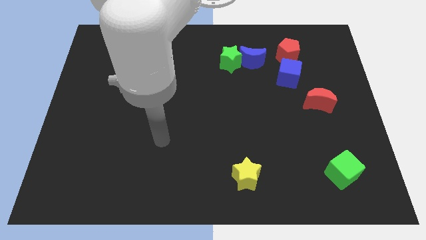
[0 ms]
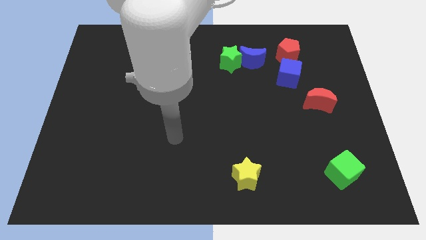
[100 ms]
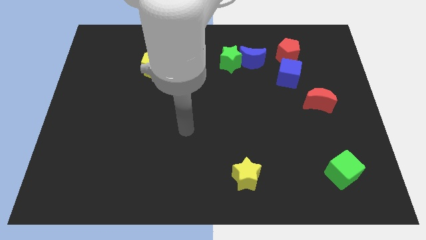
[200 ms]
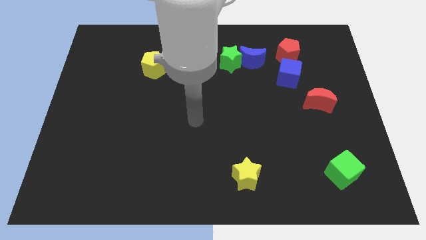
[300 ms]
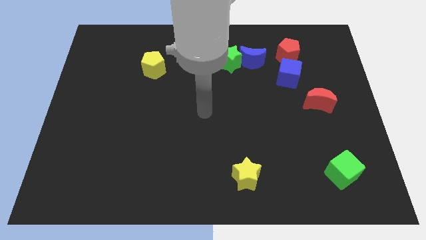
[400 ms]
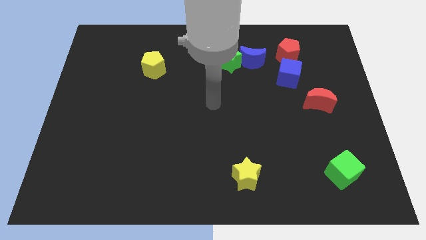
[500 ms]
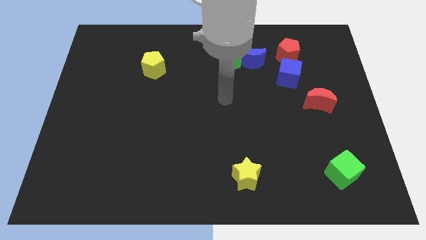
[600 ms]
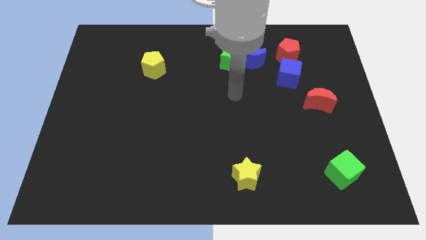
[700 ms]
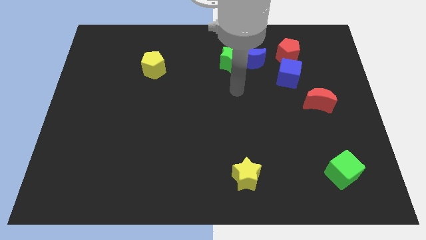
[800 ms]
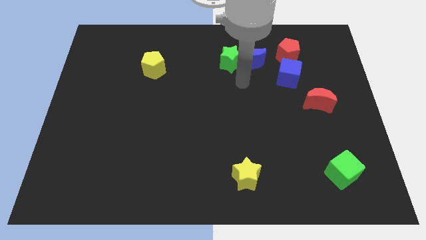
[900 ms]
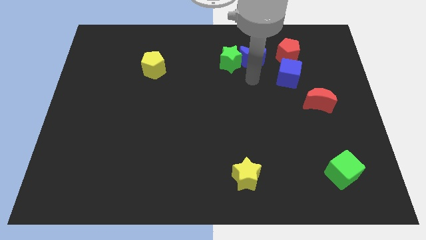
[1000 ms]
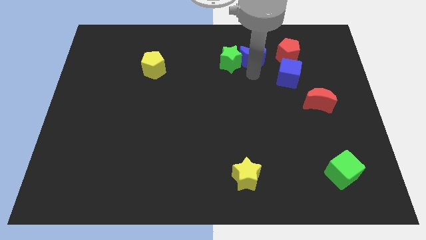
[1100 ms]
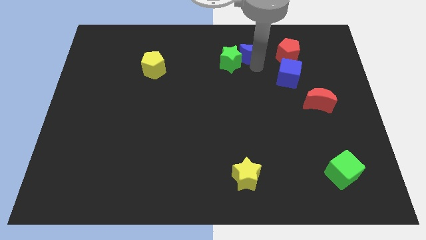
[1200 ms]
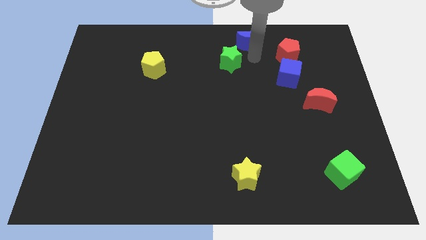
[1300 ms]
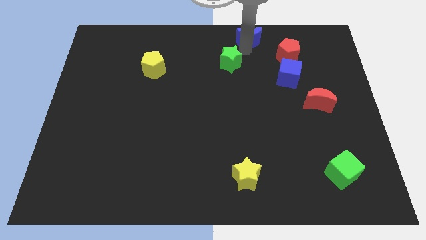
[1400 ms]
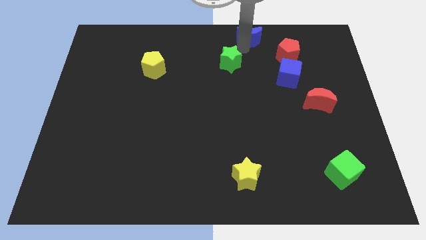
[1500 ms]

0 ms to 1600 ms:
pull the green star apart from the blue moon

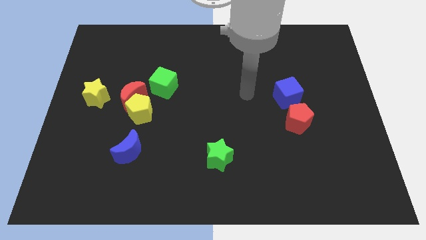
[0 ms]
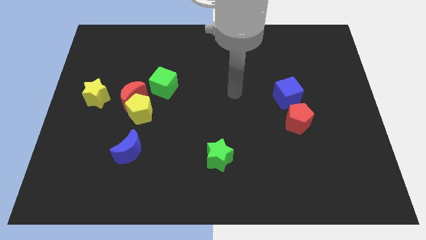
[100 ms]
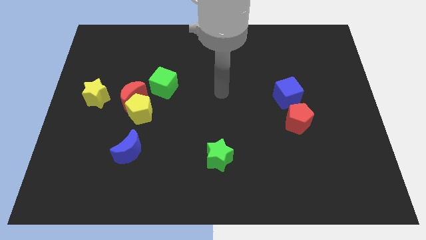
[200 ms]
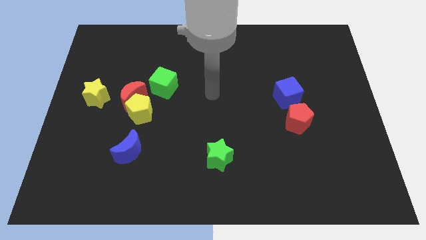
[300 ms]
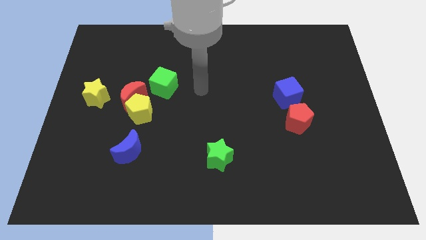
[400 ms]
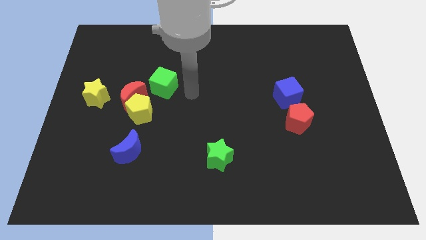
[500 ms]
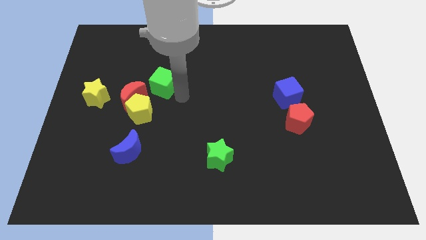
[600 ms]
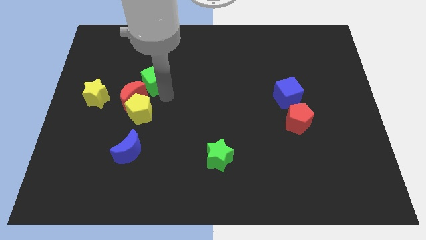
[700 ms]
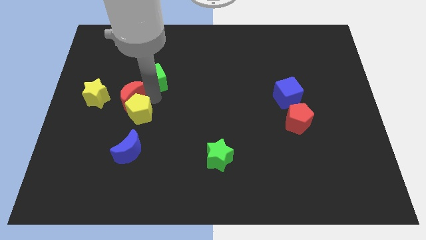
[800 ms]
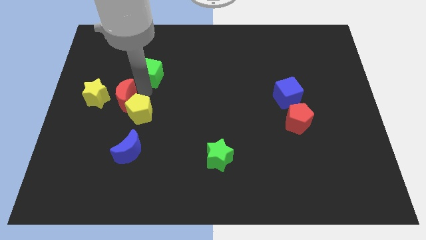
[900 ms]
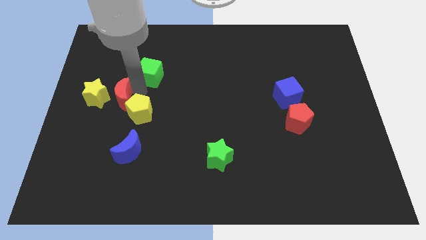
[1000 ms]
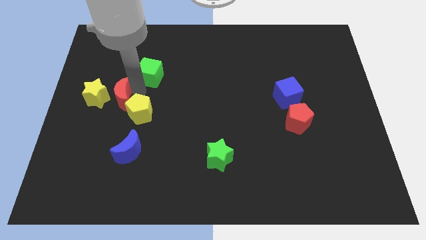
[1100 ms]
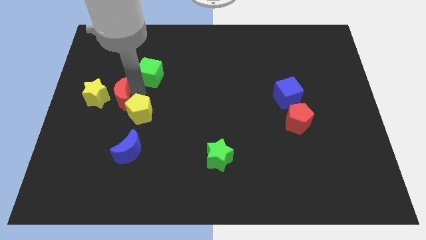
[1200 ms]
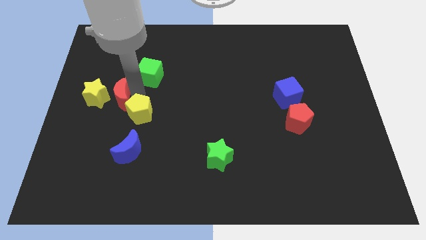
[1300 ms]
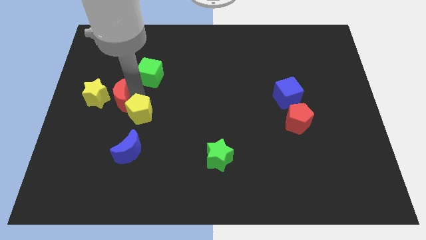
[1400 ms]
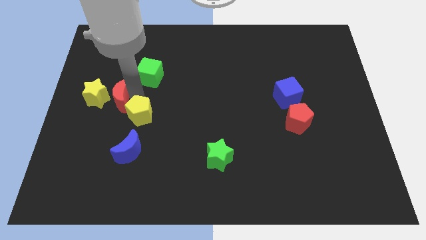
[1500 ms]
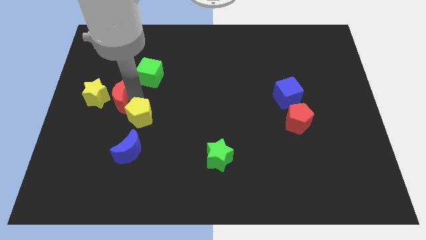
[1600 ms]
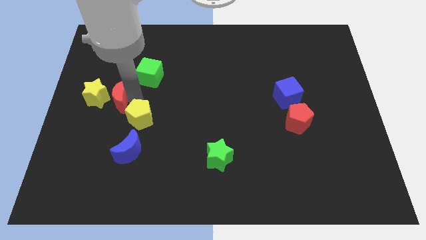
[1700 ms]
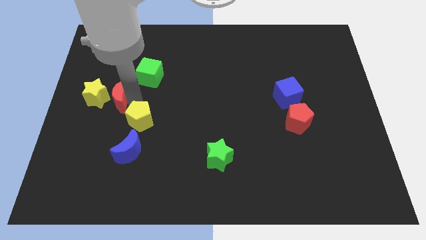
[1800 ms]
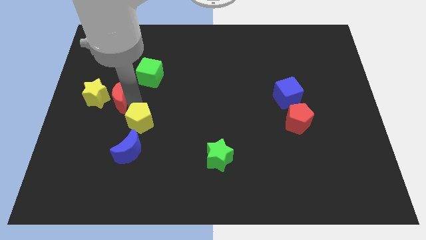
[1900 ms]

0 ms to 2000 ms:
separate the yellow pentagon from the red moon and green cube

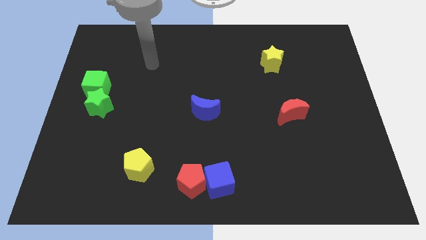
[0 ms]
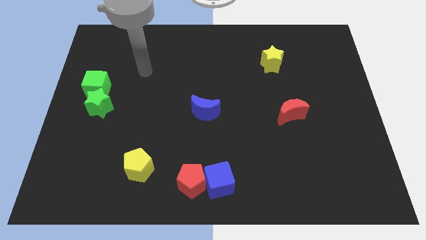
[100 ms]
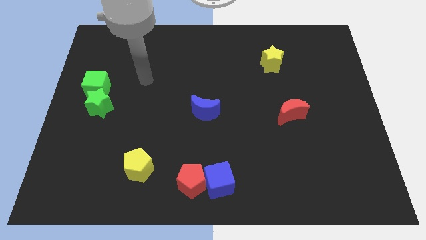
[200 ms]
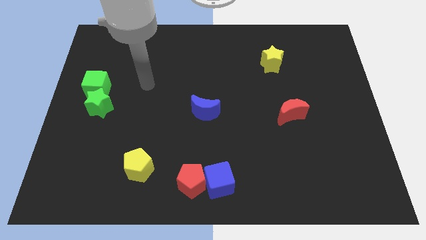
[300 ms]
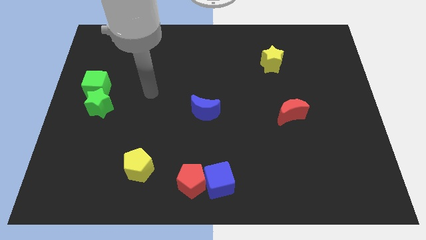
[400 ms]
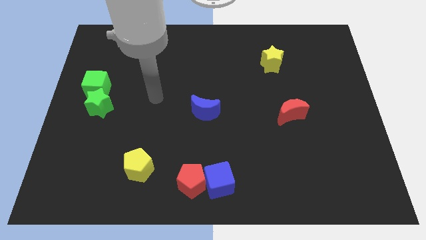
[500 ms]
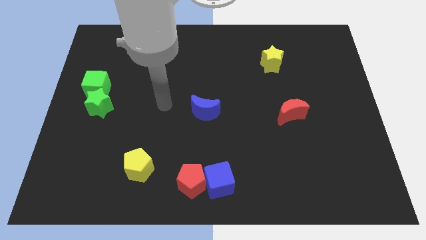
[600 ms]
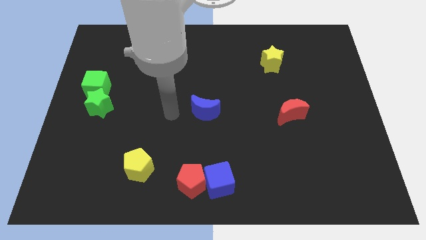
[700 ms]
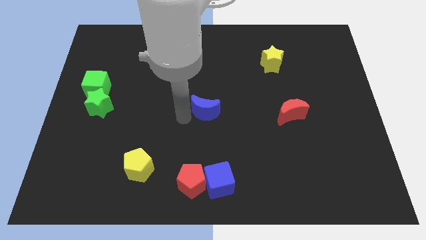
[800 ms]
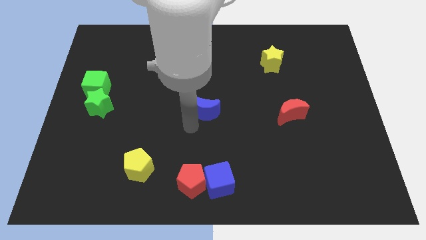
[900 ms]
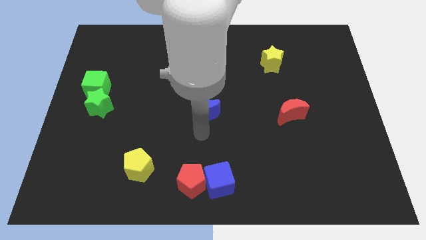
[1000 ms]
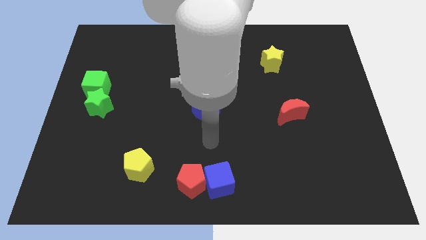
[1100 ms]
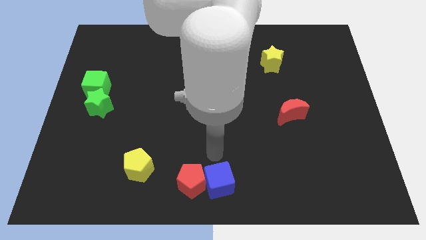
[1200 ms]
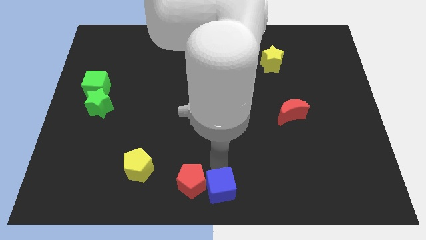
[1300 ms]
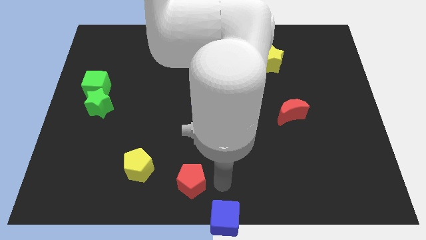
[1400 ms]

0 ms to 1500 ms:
separate the red pentagon from the blue cube

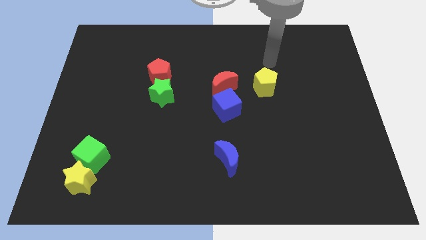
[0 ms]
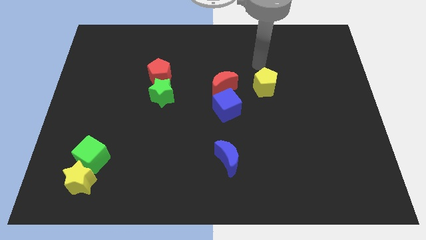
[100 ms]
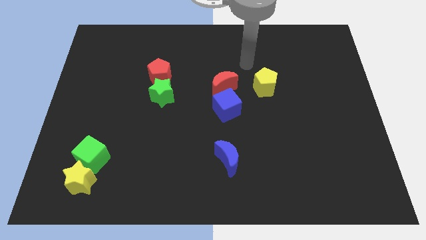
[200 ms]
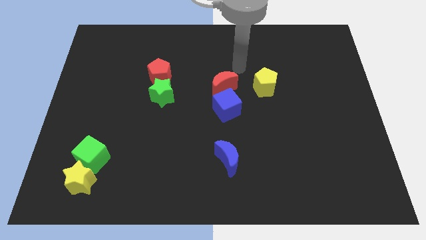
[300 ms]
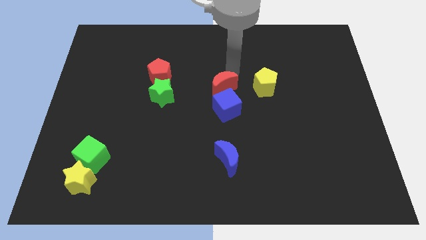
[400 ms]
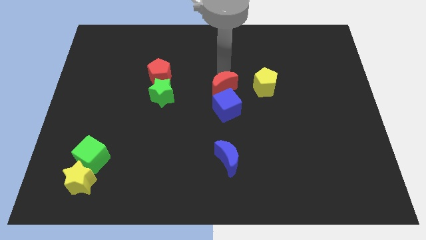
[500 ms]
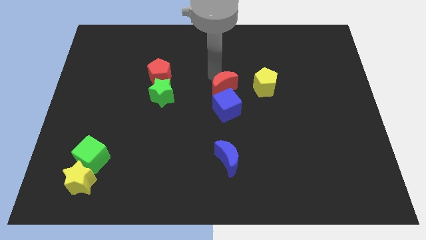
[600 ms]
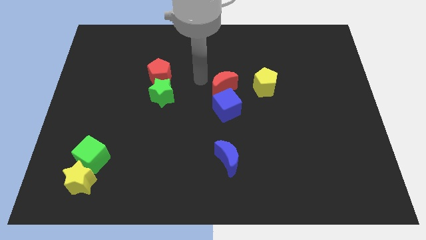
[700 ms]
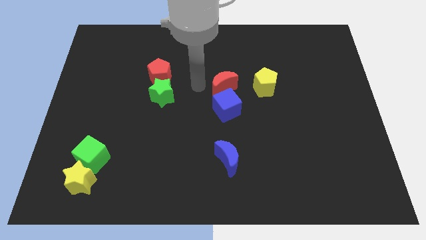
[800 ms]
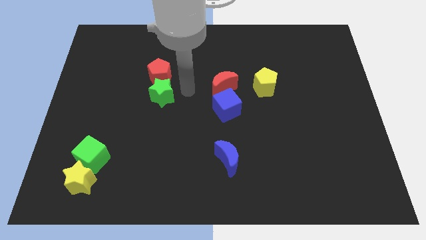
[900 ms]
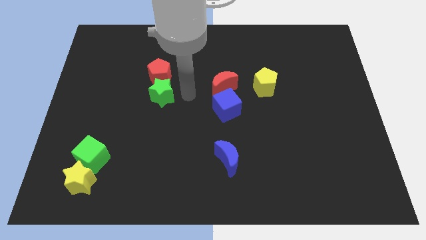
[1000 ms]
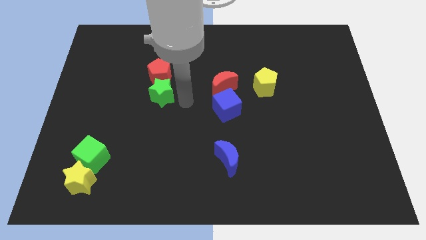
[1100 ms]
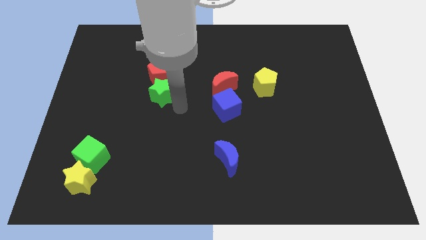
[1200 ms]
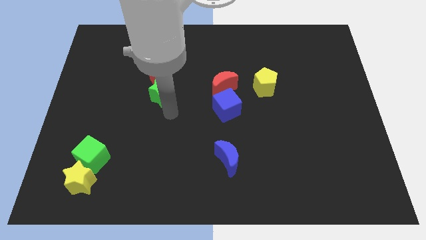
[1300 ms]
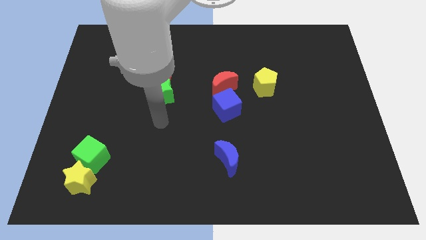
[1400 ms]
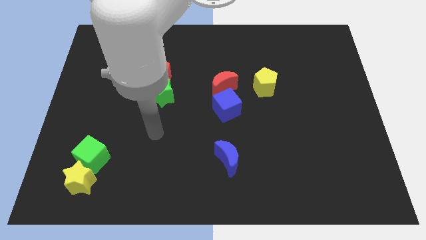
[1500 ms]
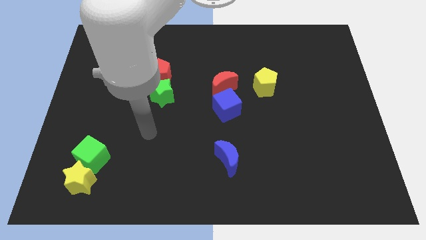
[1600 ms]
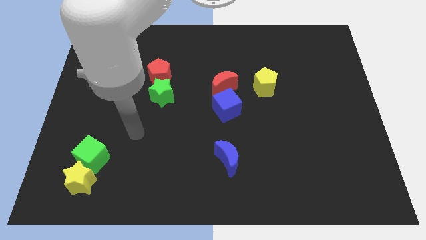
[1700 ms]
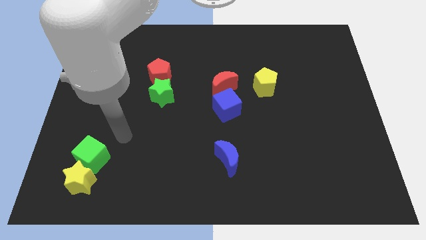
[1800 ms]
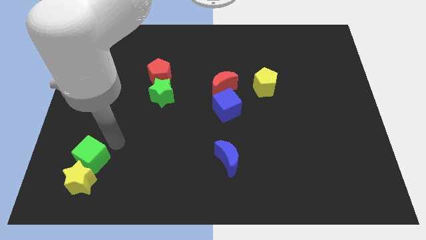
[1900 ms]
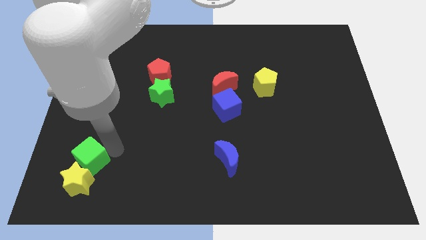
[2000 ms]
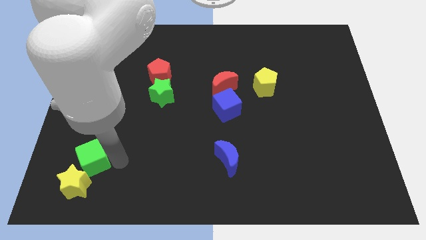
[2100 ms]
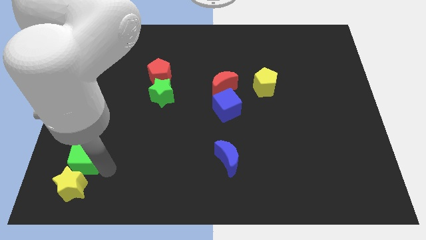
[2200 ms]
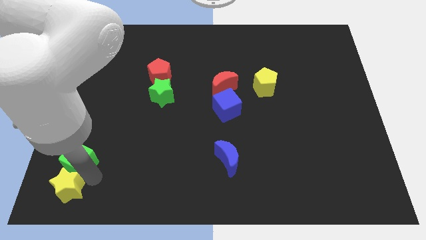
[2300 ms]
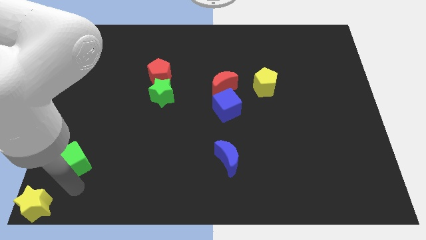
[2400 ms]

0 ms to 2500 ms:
separate the green cube from the yellow star

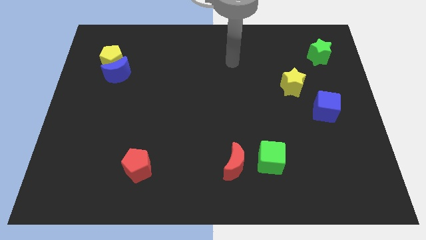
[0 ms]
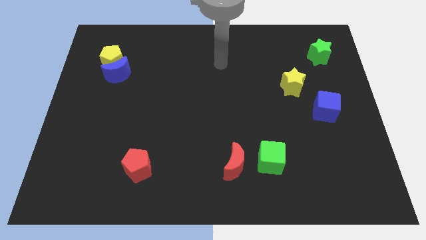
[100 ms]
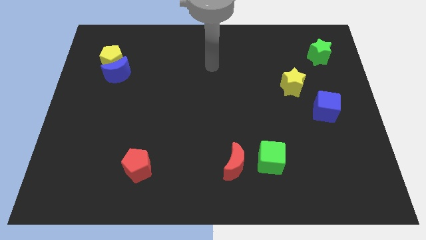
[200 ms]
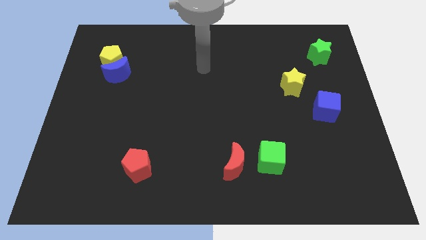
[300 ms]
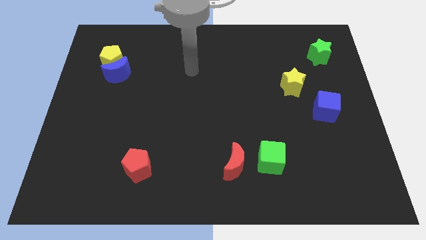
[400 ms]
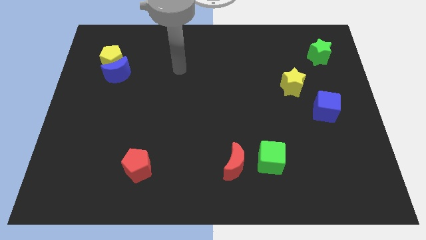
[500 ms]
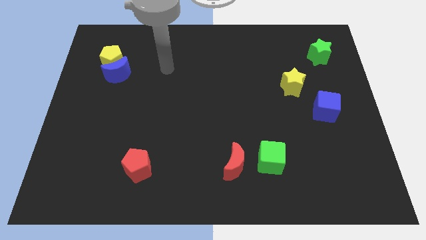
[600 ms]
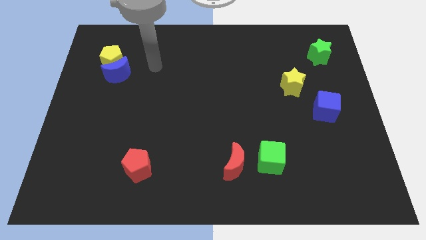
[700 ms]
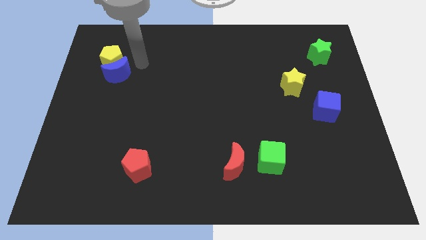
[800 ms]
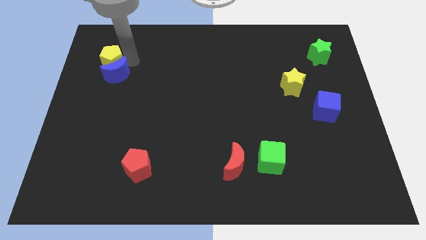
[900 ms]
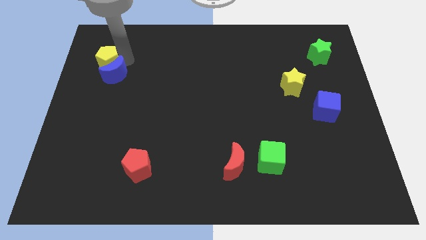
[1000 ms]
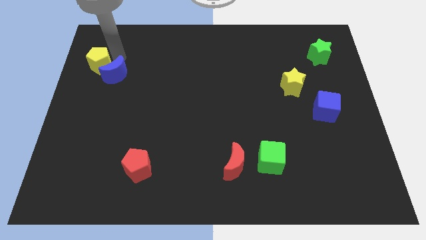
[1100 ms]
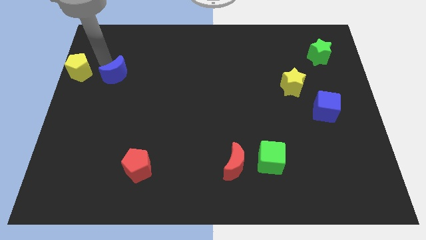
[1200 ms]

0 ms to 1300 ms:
separate the blue moon from the yellow pentagon

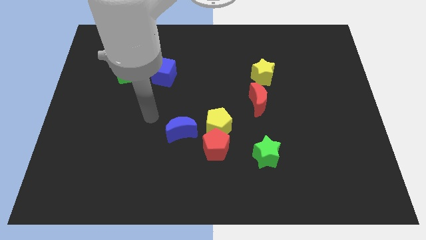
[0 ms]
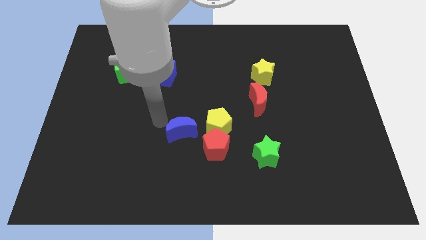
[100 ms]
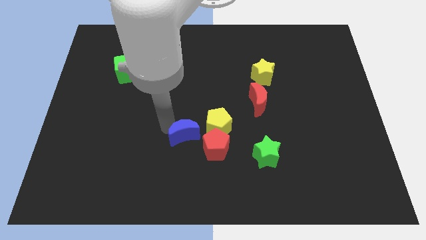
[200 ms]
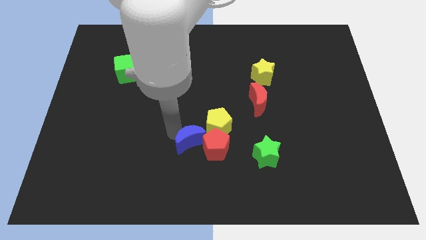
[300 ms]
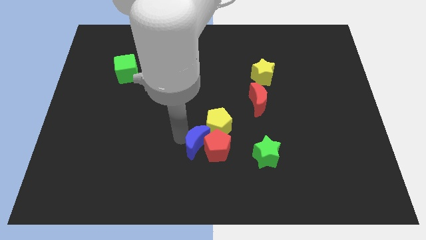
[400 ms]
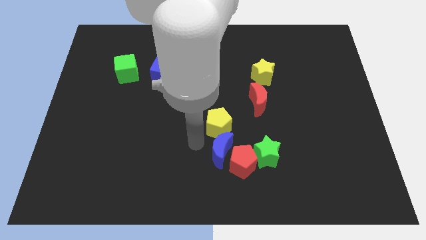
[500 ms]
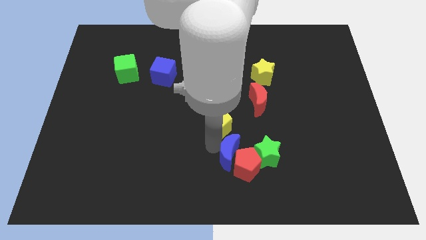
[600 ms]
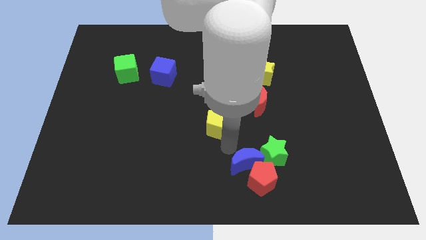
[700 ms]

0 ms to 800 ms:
move the yellow pentagon away from the red pentagon and blue moon
